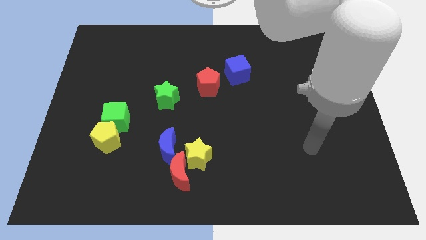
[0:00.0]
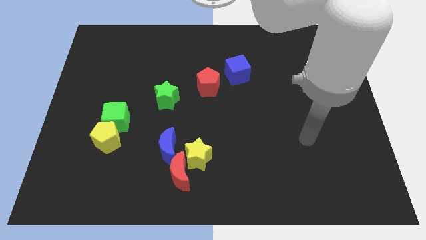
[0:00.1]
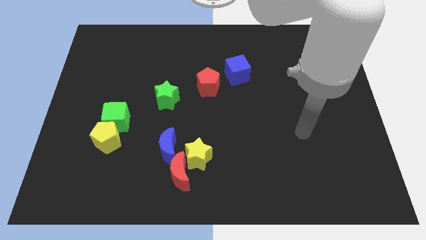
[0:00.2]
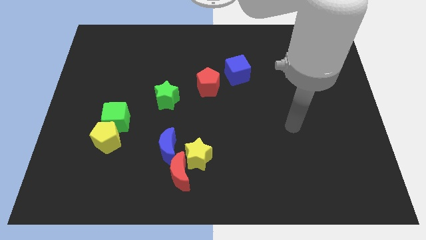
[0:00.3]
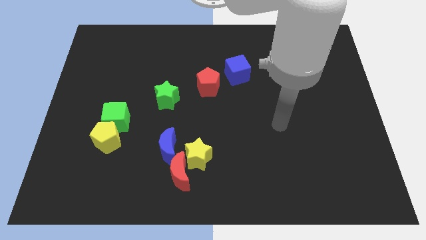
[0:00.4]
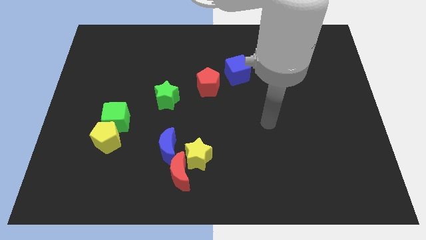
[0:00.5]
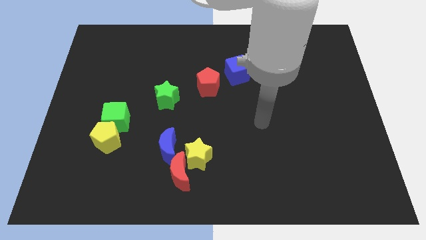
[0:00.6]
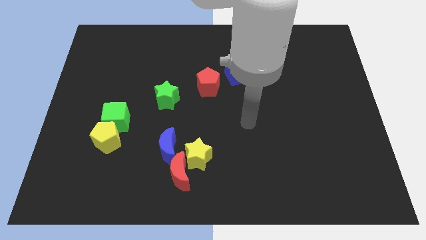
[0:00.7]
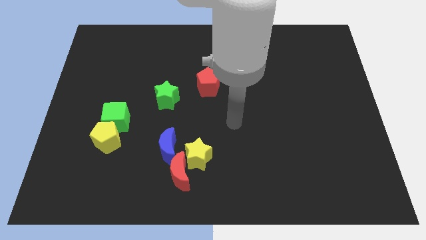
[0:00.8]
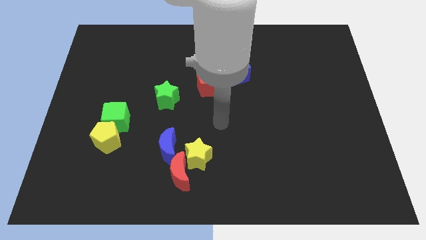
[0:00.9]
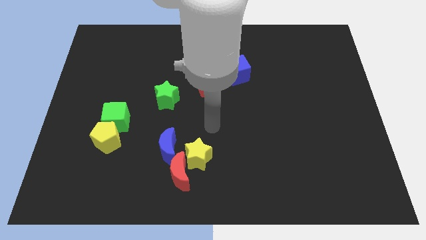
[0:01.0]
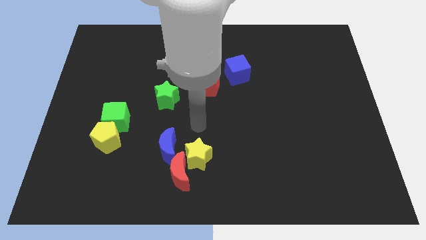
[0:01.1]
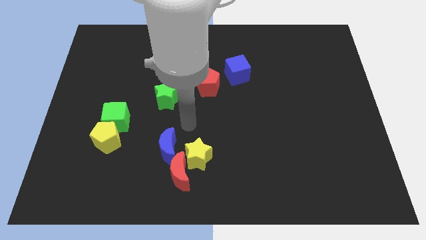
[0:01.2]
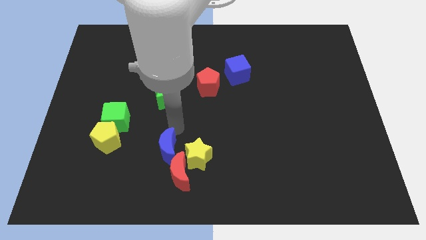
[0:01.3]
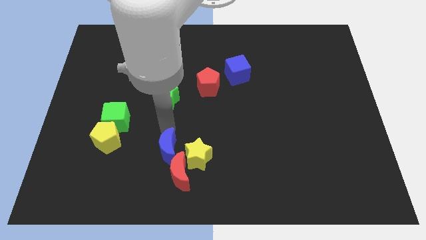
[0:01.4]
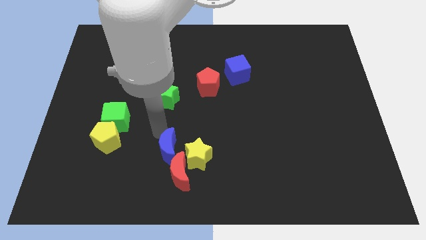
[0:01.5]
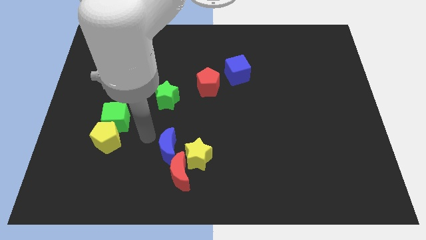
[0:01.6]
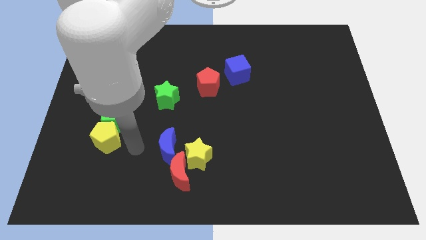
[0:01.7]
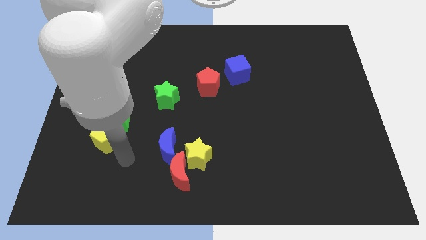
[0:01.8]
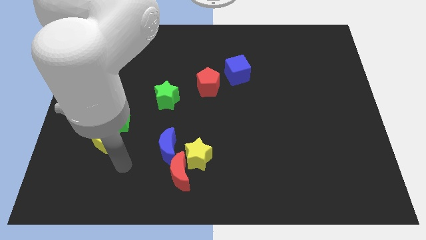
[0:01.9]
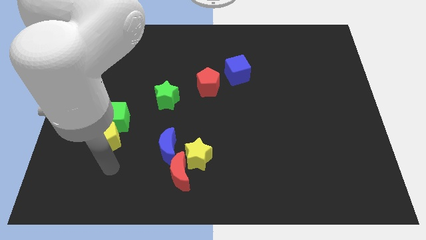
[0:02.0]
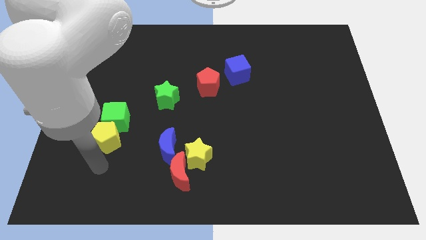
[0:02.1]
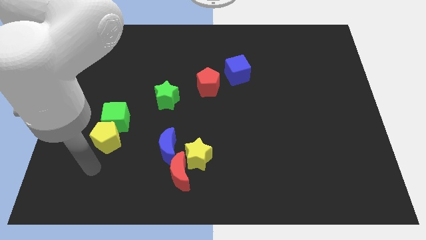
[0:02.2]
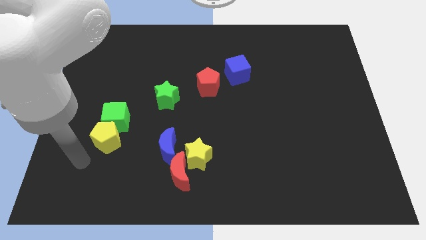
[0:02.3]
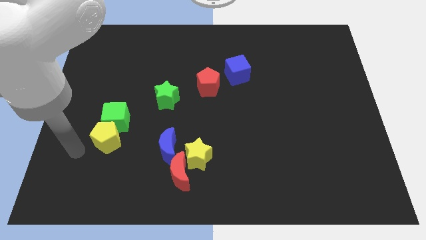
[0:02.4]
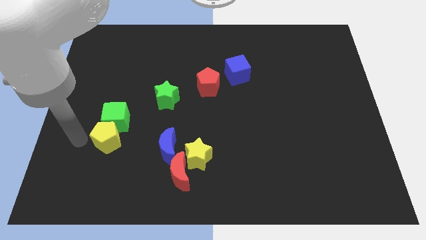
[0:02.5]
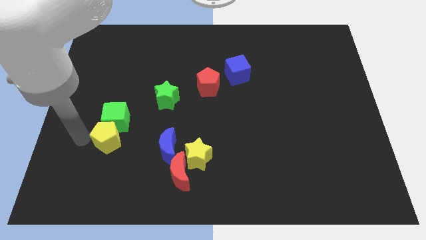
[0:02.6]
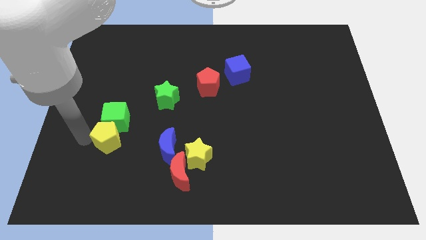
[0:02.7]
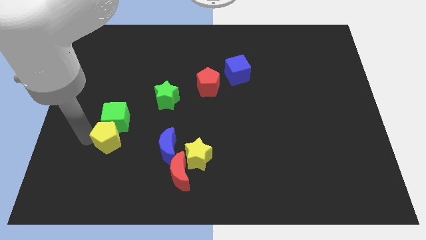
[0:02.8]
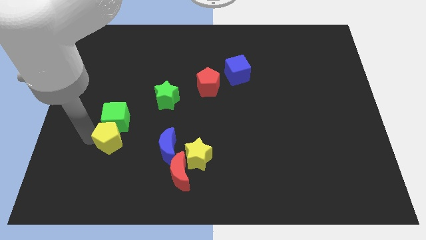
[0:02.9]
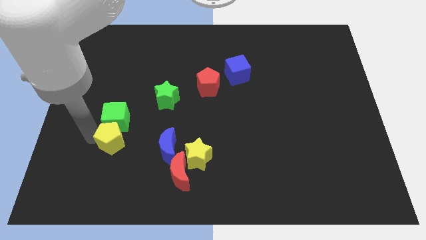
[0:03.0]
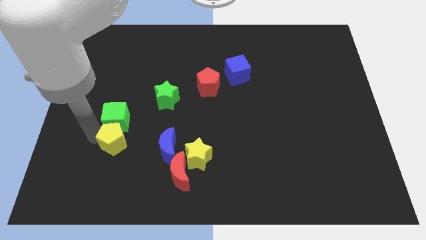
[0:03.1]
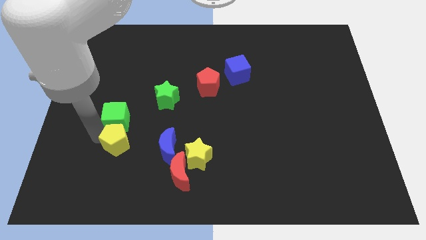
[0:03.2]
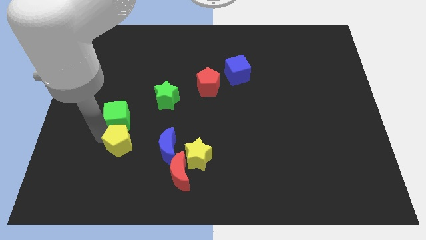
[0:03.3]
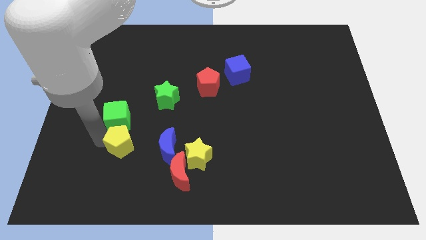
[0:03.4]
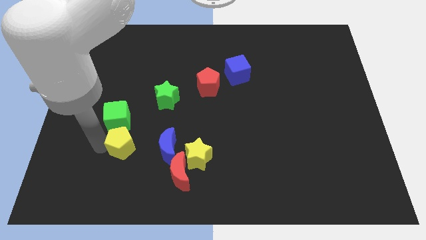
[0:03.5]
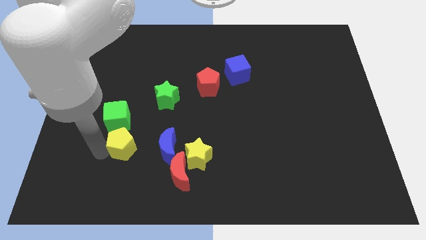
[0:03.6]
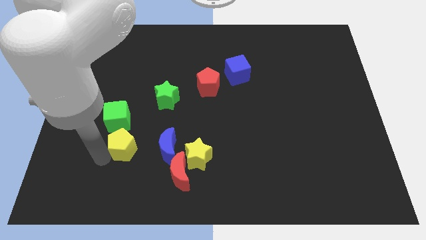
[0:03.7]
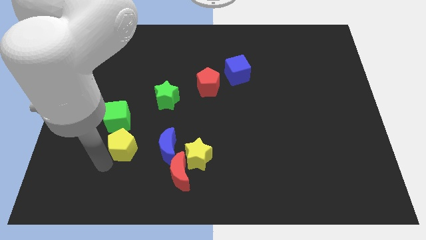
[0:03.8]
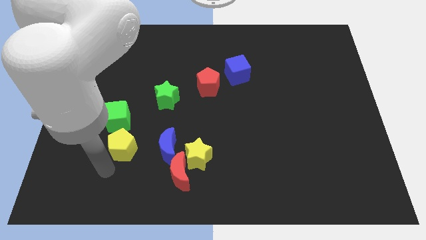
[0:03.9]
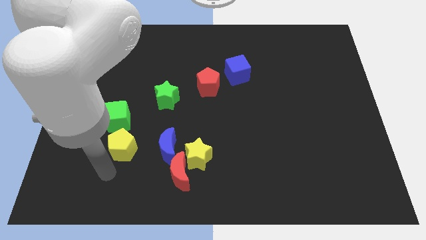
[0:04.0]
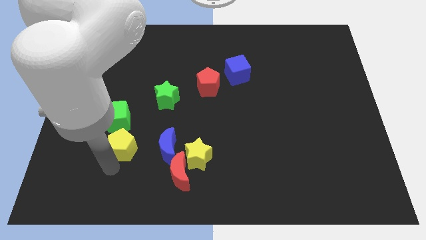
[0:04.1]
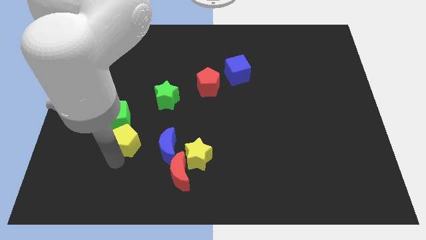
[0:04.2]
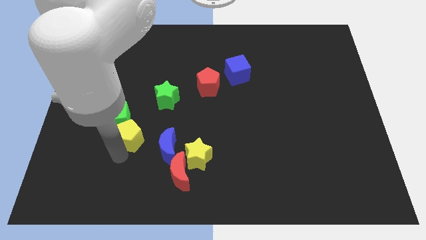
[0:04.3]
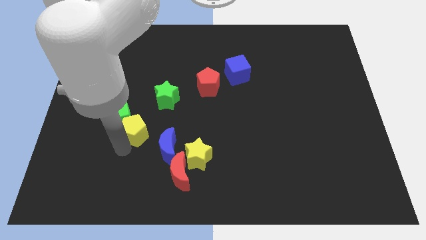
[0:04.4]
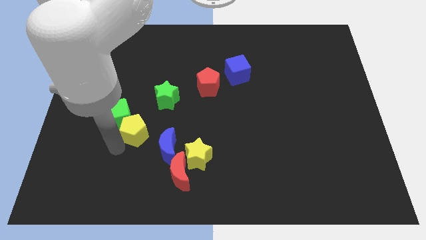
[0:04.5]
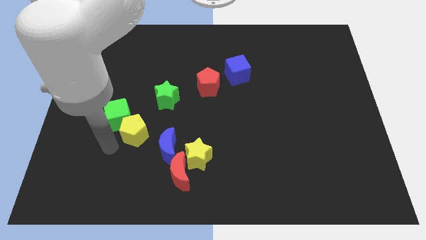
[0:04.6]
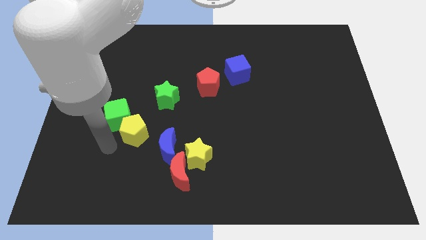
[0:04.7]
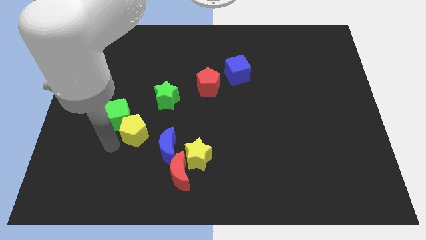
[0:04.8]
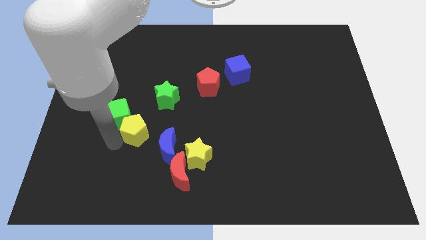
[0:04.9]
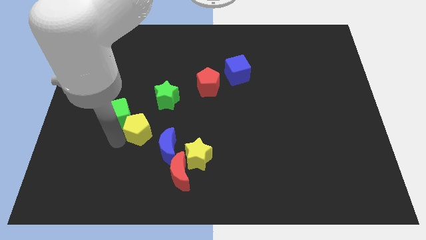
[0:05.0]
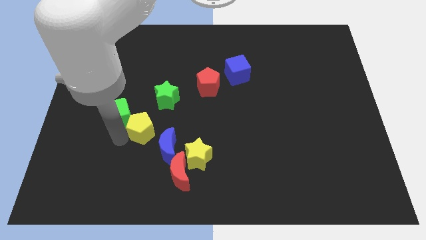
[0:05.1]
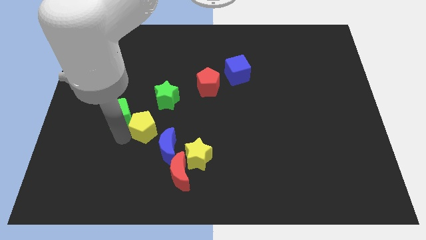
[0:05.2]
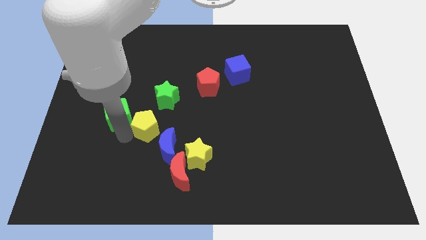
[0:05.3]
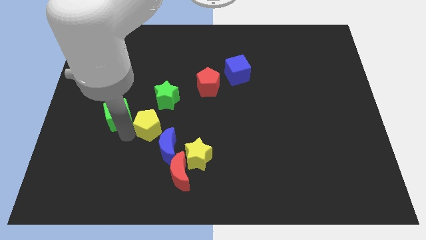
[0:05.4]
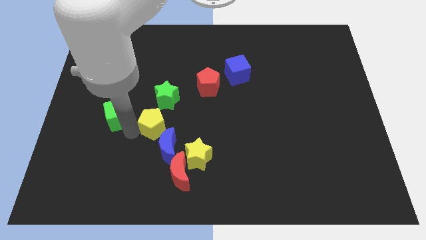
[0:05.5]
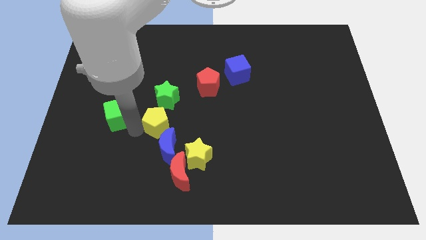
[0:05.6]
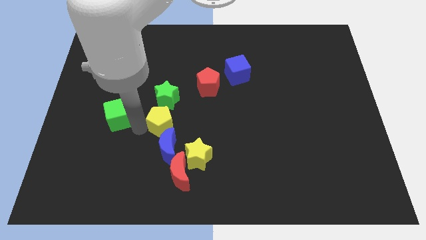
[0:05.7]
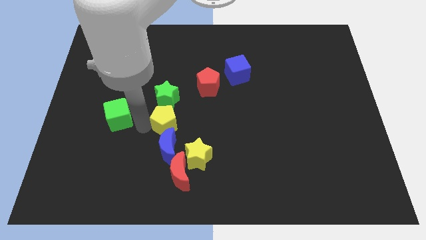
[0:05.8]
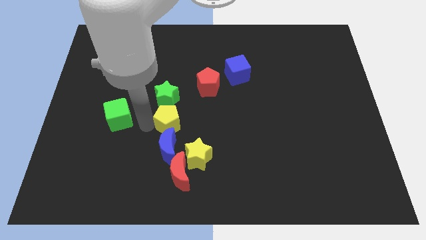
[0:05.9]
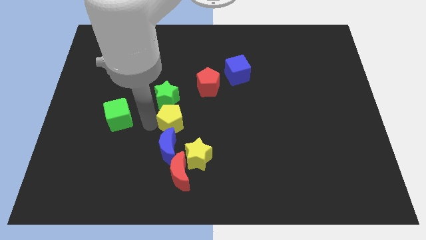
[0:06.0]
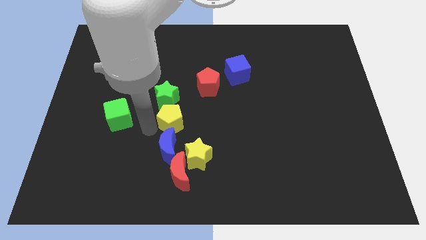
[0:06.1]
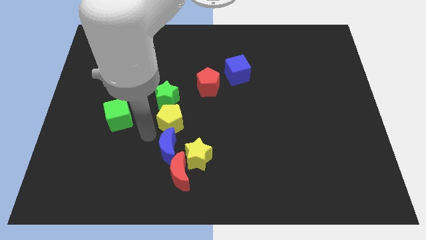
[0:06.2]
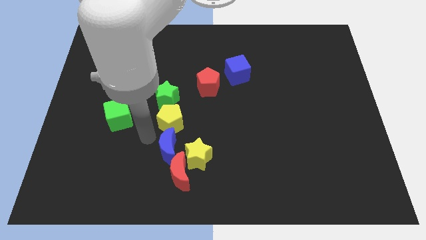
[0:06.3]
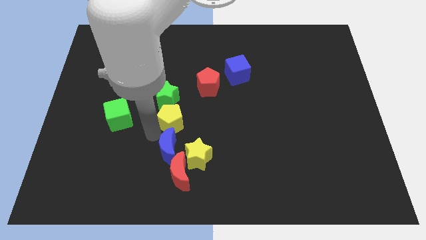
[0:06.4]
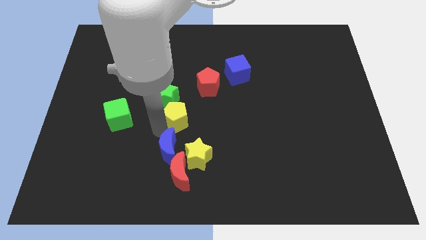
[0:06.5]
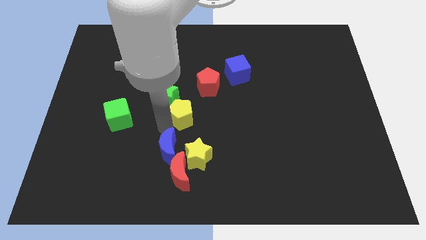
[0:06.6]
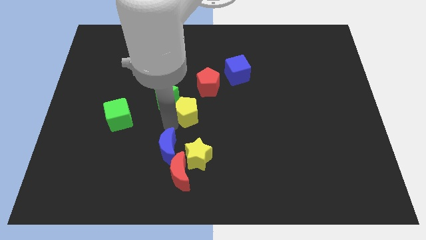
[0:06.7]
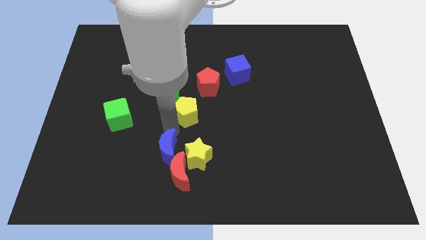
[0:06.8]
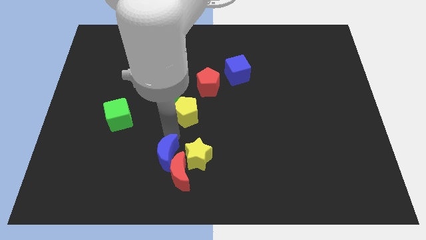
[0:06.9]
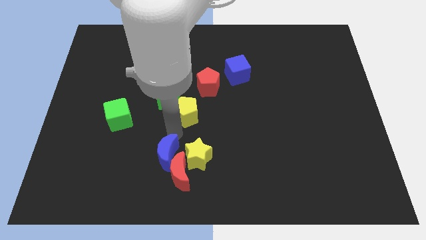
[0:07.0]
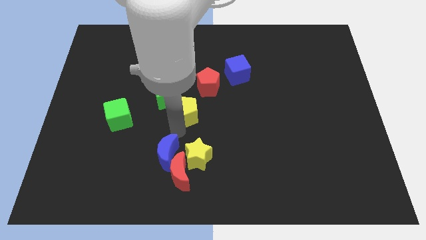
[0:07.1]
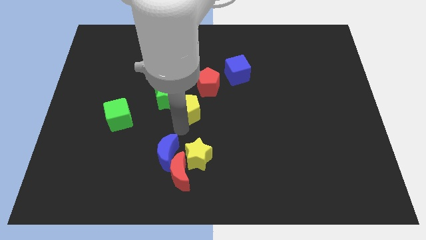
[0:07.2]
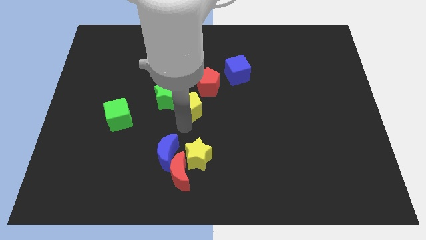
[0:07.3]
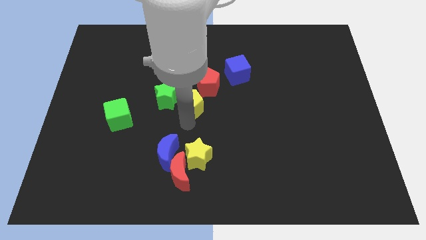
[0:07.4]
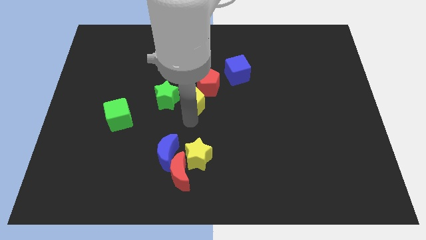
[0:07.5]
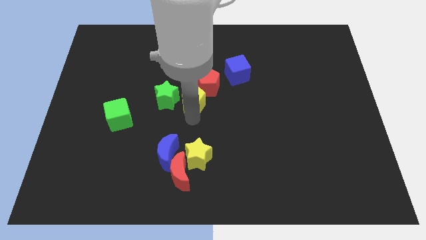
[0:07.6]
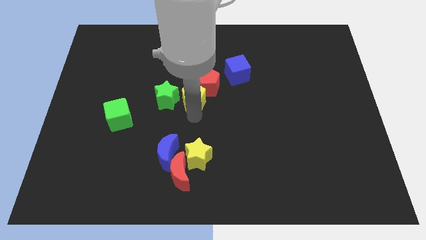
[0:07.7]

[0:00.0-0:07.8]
push the yellow pentagon next to the red pentagon
